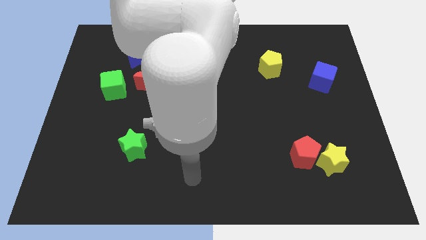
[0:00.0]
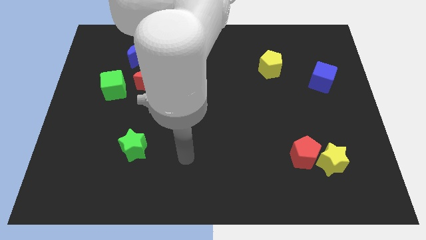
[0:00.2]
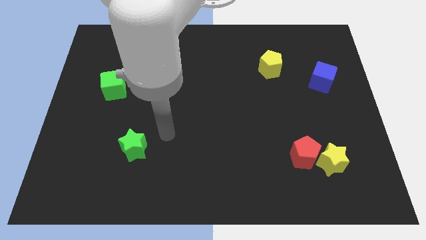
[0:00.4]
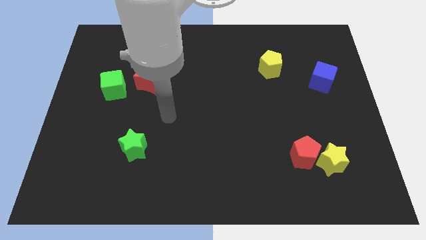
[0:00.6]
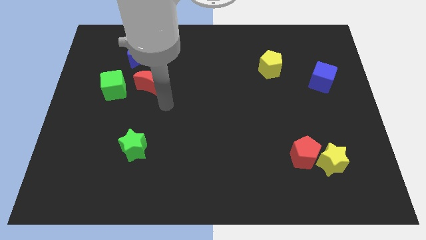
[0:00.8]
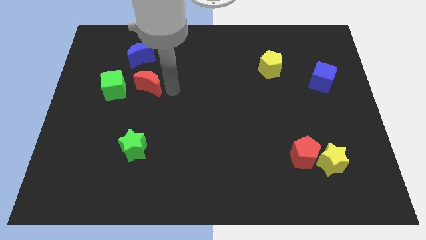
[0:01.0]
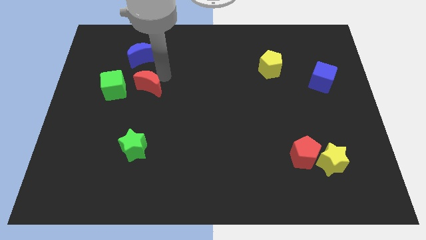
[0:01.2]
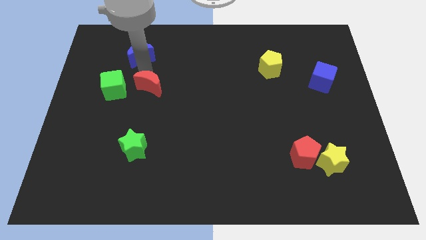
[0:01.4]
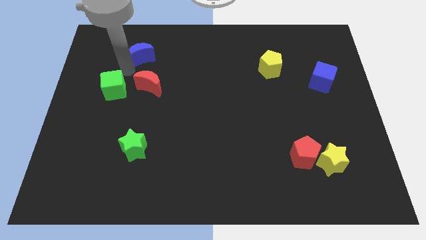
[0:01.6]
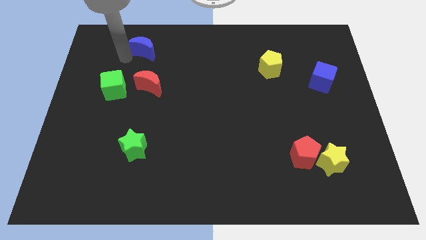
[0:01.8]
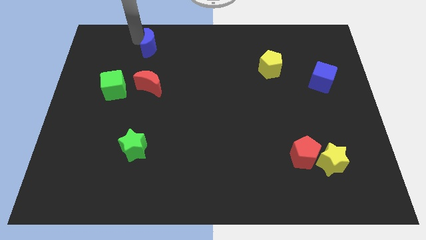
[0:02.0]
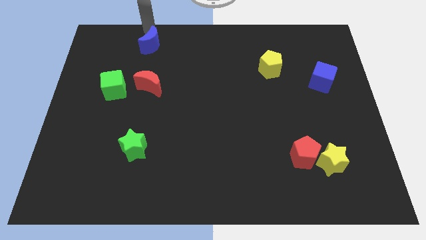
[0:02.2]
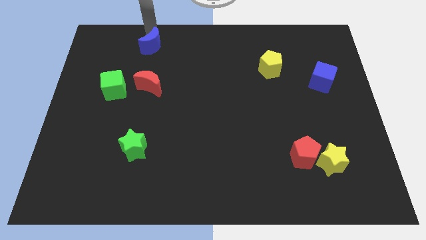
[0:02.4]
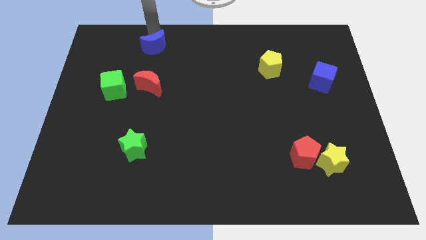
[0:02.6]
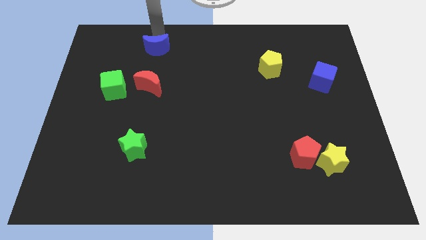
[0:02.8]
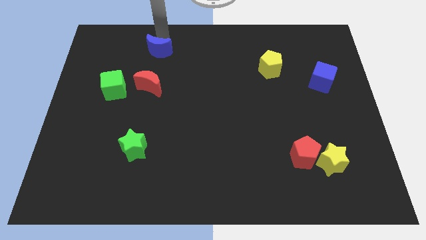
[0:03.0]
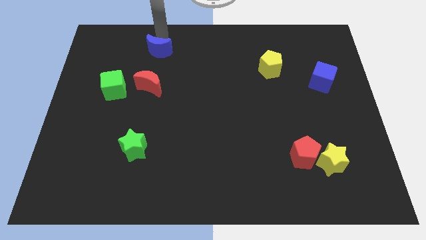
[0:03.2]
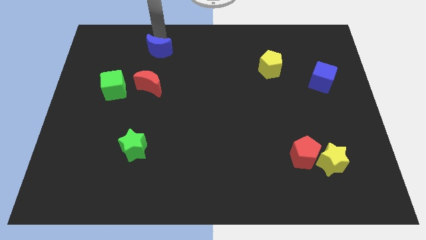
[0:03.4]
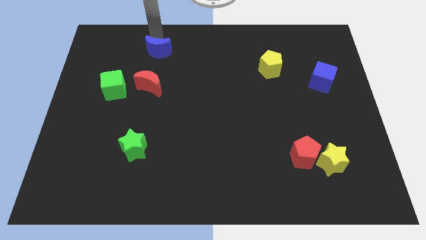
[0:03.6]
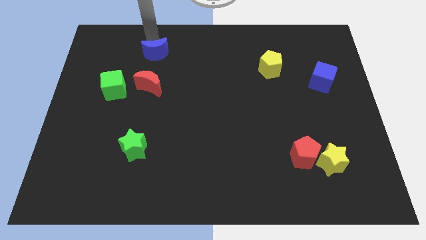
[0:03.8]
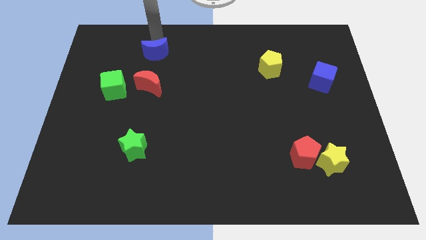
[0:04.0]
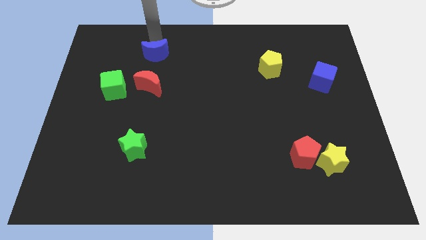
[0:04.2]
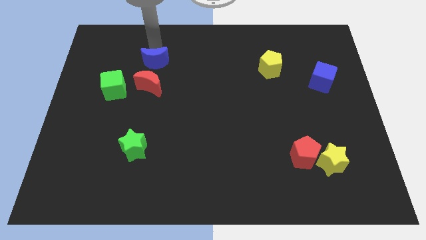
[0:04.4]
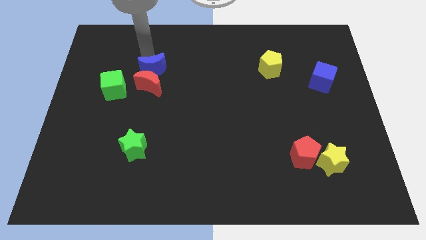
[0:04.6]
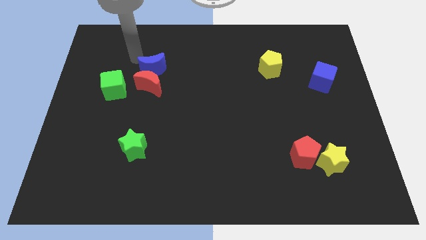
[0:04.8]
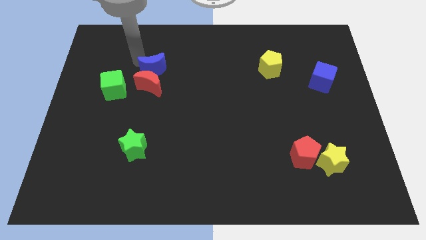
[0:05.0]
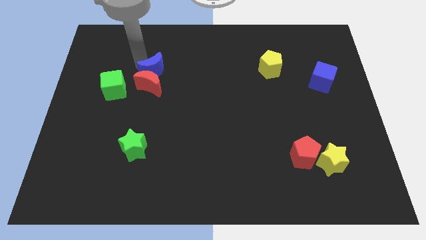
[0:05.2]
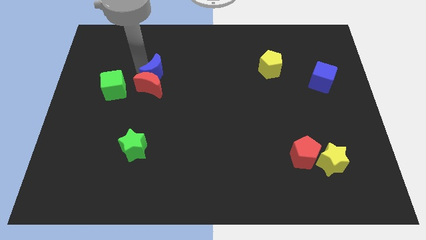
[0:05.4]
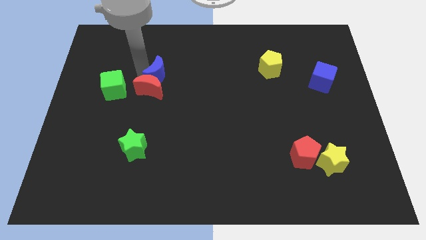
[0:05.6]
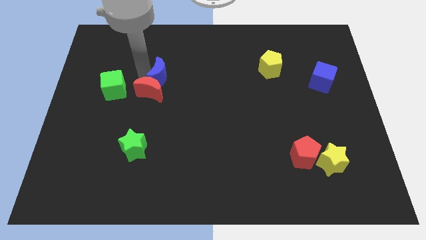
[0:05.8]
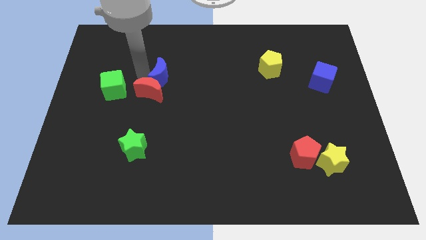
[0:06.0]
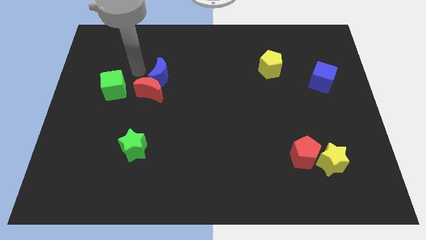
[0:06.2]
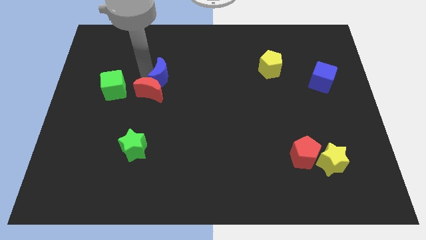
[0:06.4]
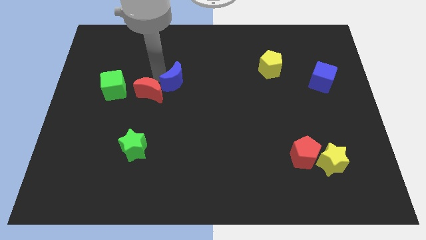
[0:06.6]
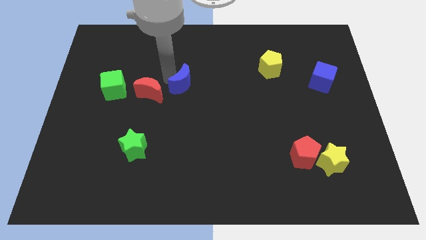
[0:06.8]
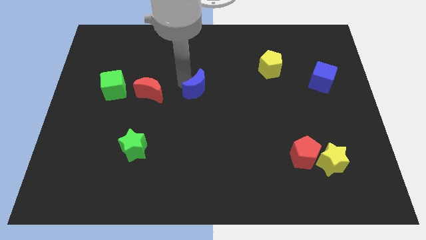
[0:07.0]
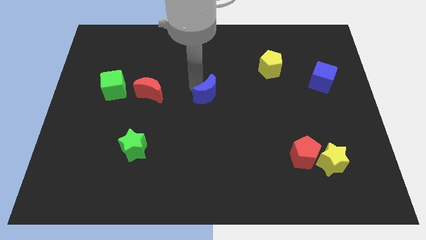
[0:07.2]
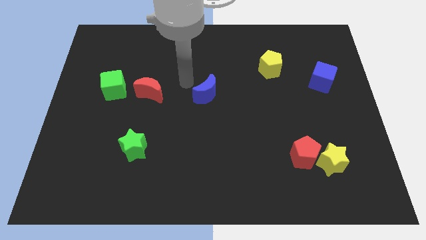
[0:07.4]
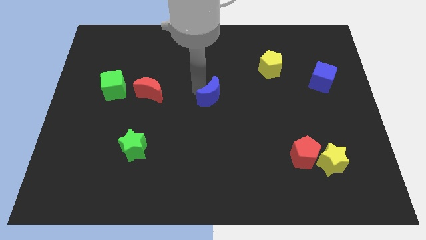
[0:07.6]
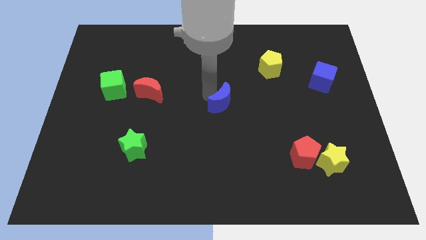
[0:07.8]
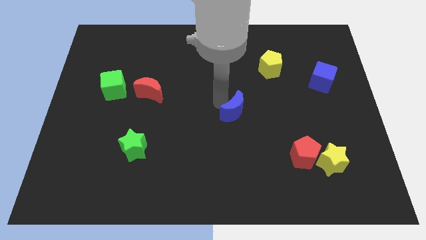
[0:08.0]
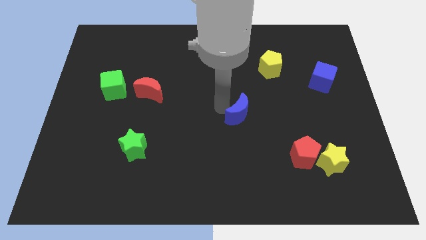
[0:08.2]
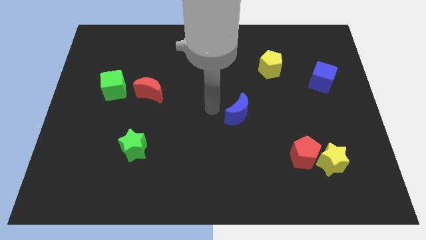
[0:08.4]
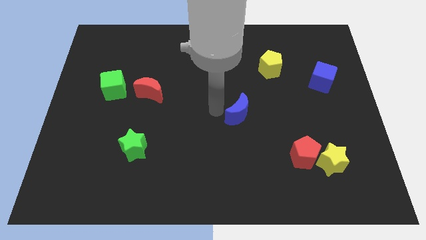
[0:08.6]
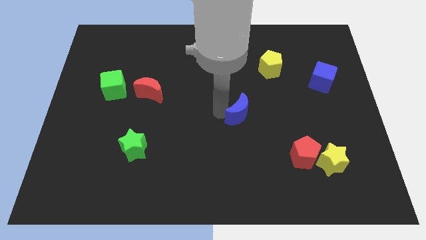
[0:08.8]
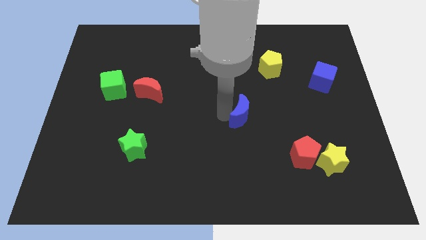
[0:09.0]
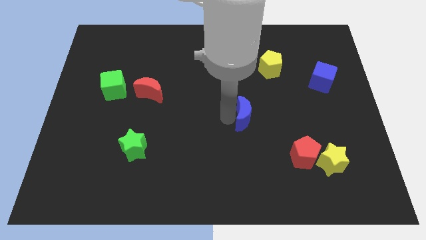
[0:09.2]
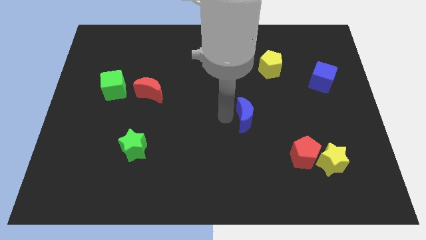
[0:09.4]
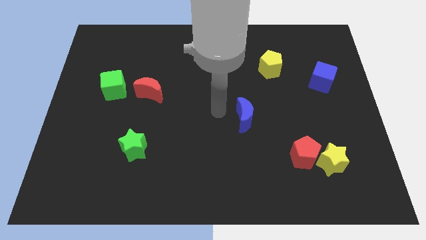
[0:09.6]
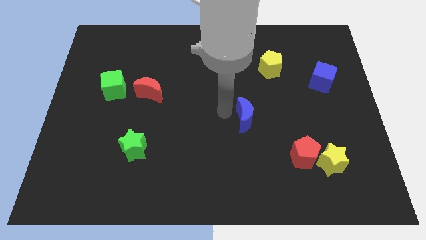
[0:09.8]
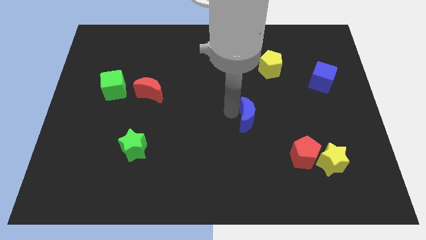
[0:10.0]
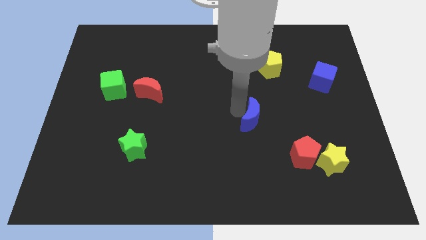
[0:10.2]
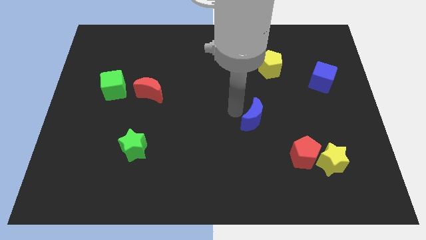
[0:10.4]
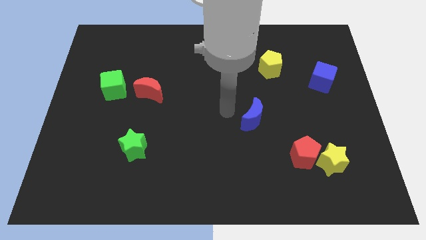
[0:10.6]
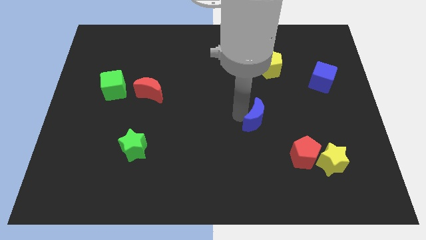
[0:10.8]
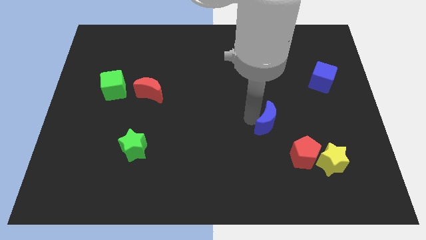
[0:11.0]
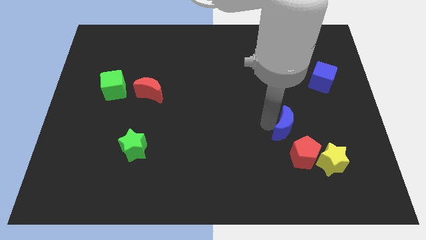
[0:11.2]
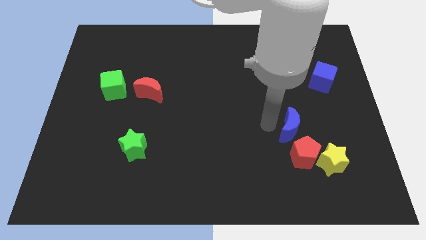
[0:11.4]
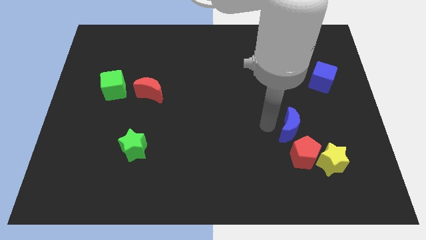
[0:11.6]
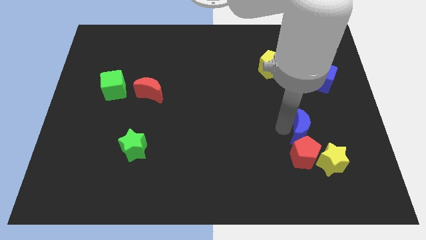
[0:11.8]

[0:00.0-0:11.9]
put the blue moon diagonally up and to the right of the red pentagon

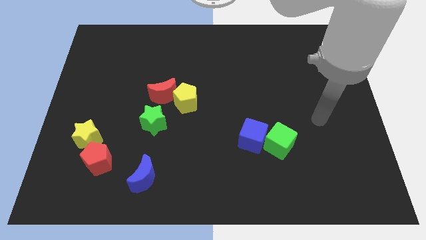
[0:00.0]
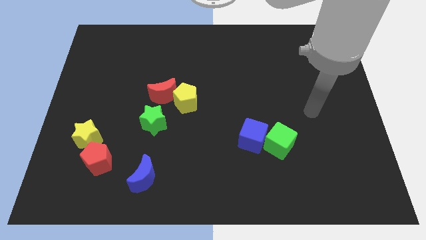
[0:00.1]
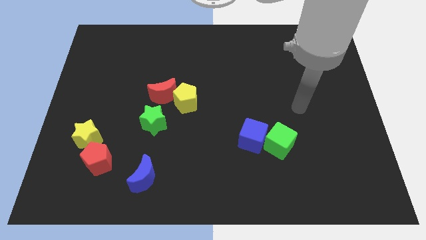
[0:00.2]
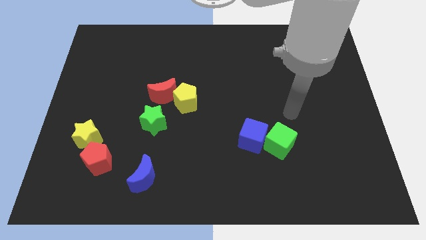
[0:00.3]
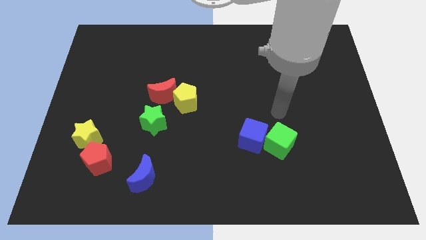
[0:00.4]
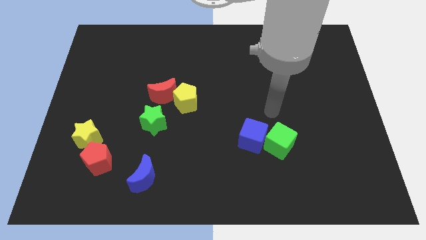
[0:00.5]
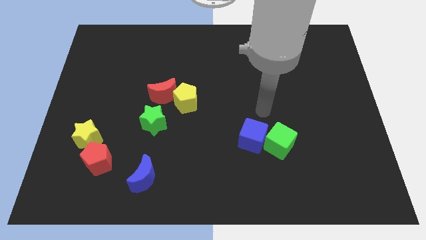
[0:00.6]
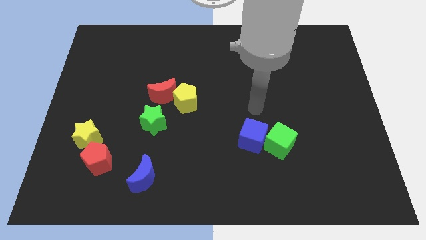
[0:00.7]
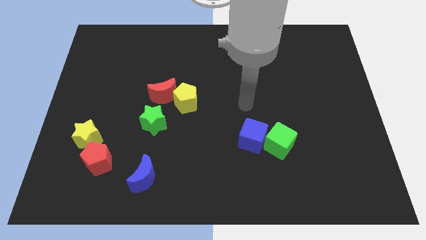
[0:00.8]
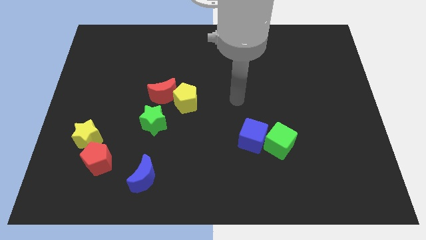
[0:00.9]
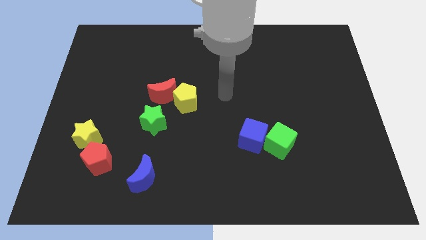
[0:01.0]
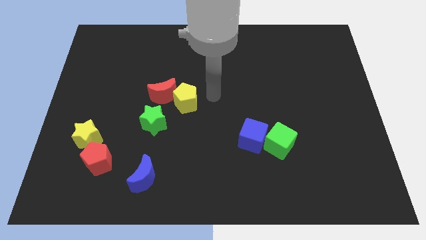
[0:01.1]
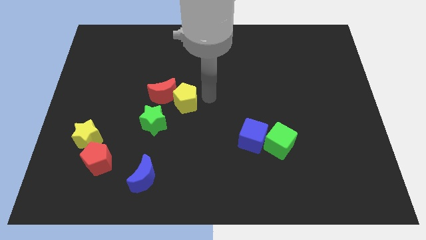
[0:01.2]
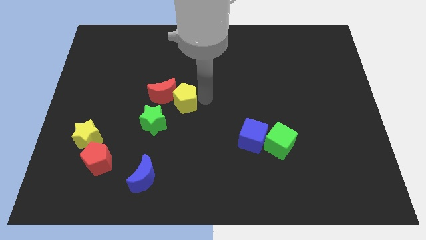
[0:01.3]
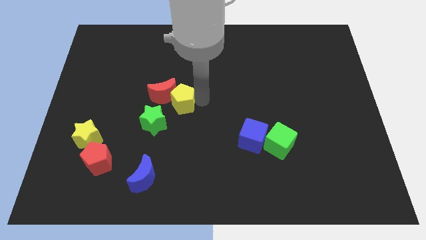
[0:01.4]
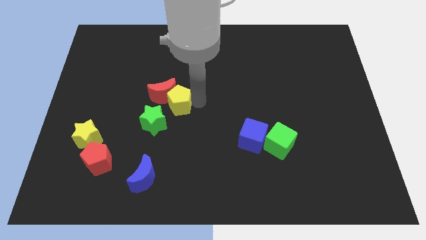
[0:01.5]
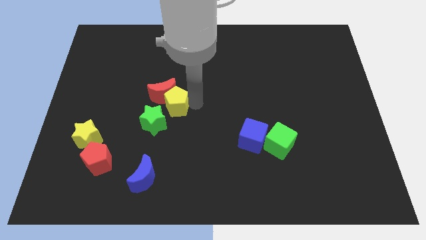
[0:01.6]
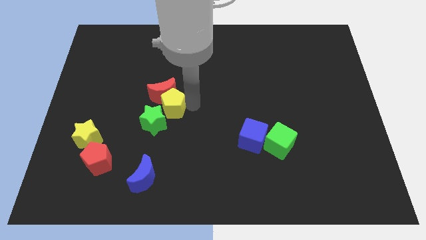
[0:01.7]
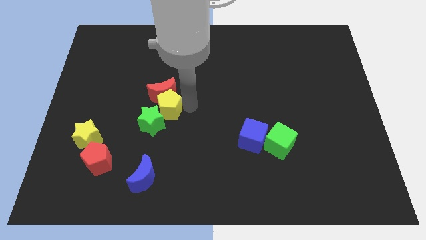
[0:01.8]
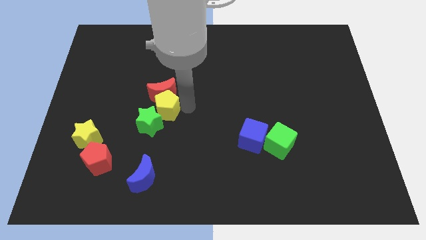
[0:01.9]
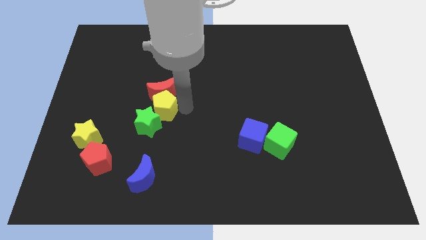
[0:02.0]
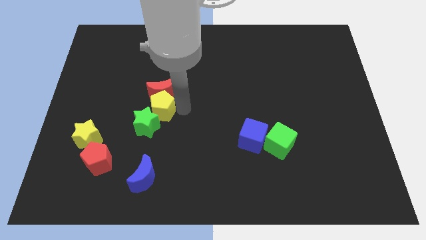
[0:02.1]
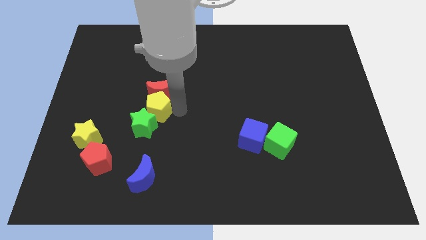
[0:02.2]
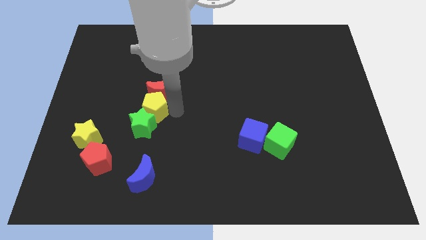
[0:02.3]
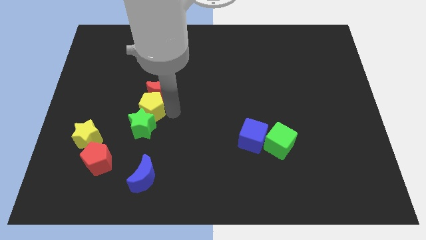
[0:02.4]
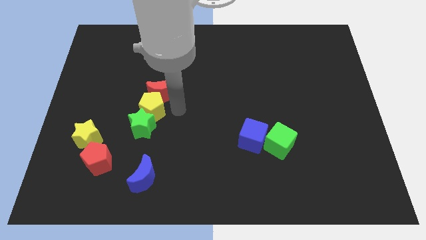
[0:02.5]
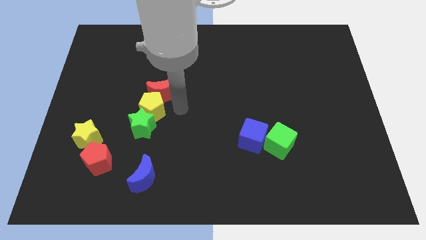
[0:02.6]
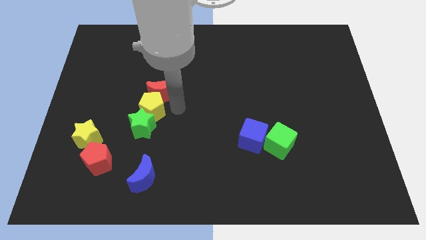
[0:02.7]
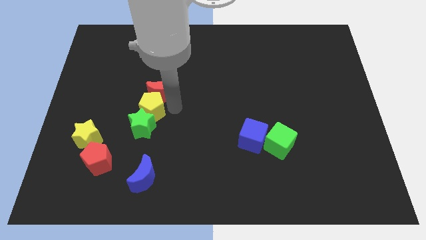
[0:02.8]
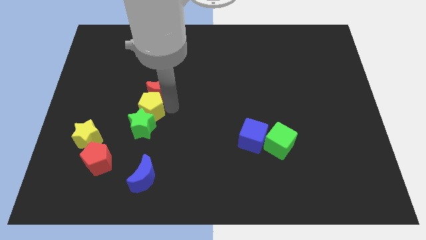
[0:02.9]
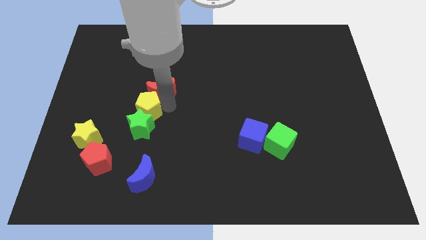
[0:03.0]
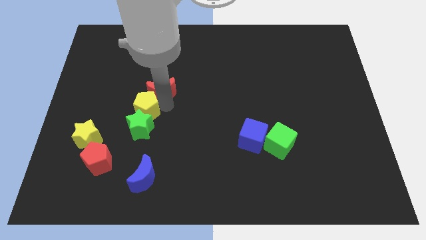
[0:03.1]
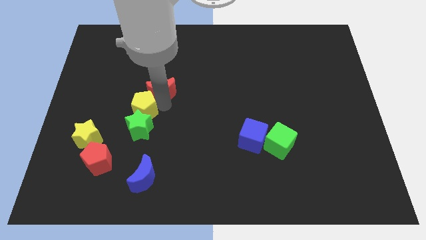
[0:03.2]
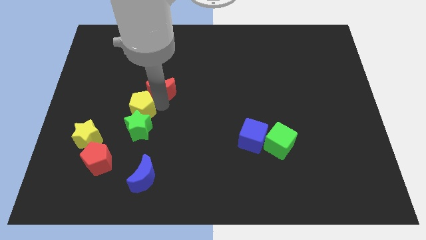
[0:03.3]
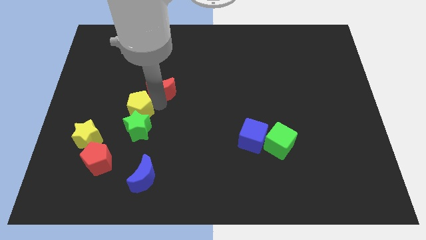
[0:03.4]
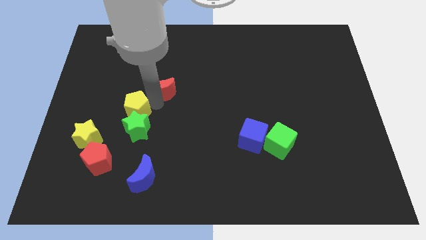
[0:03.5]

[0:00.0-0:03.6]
push the yellow pentagon diagonally up and to the right of the yellow star
